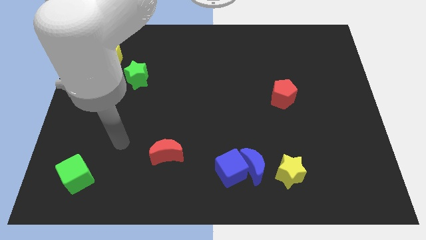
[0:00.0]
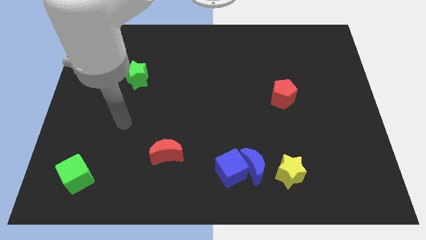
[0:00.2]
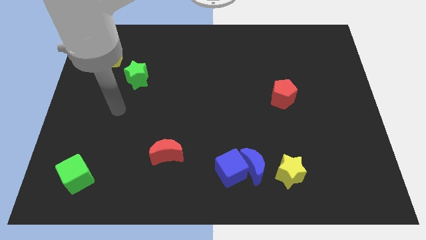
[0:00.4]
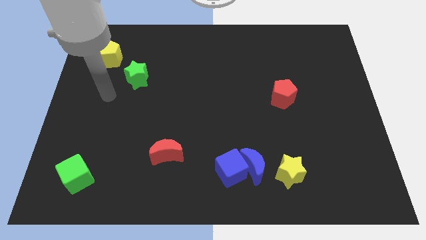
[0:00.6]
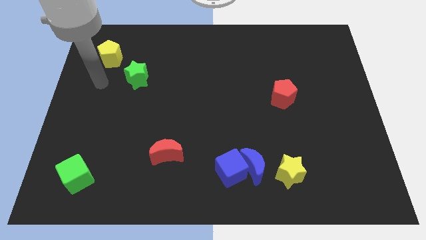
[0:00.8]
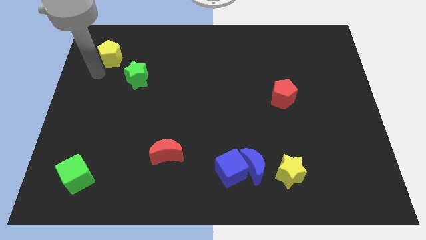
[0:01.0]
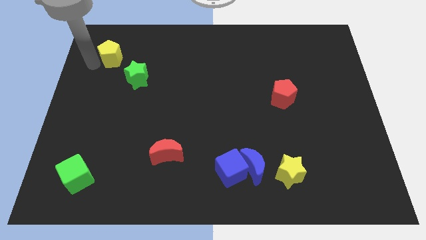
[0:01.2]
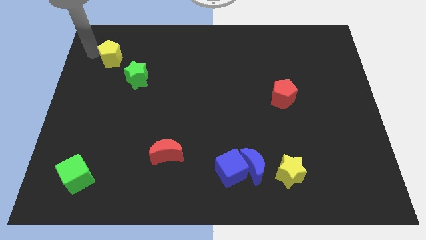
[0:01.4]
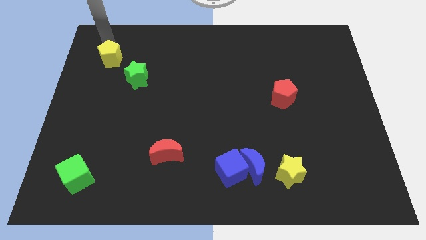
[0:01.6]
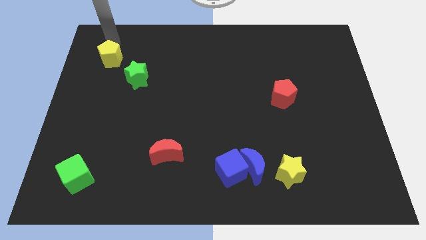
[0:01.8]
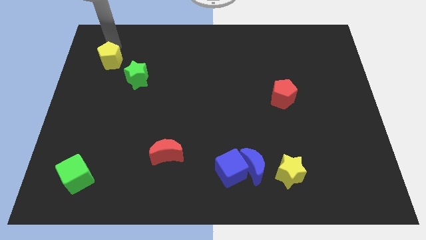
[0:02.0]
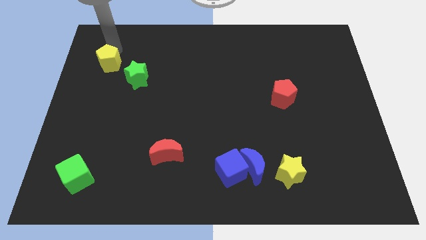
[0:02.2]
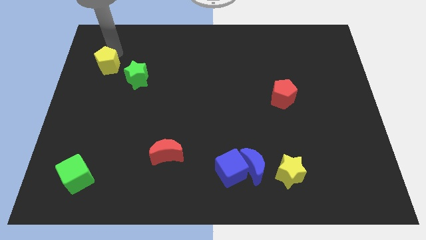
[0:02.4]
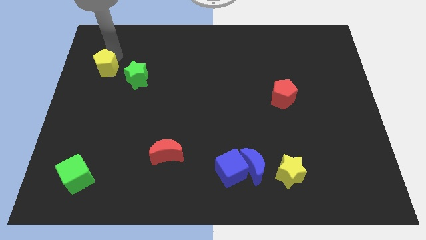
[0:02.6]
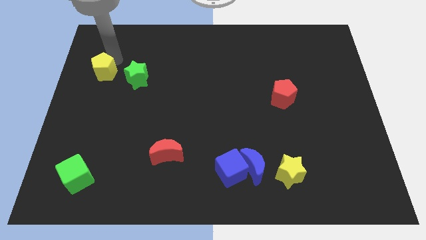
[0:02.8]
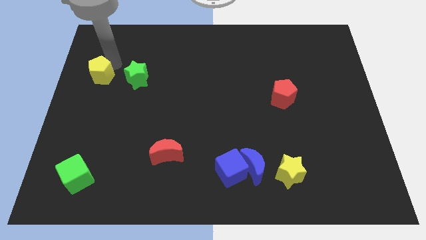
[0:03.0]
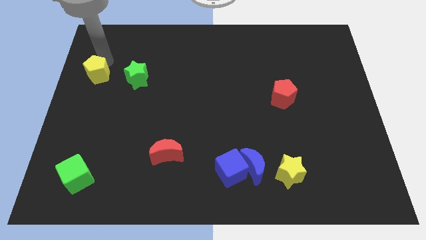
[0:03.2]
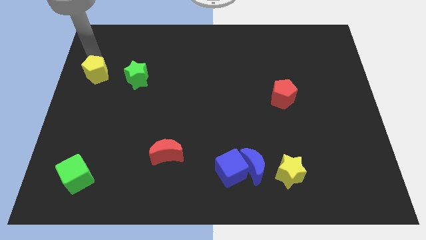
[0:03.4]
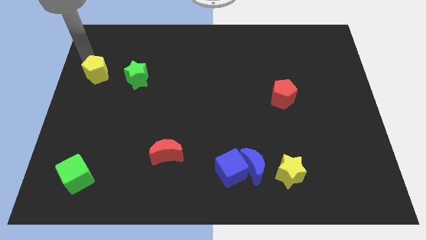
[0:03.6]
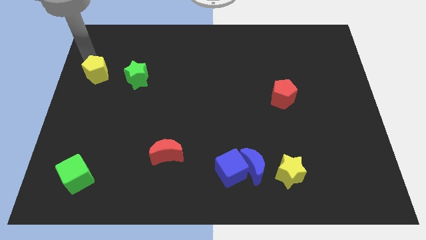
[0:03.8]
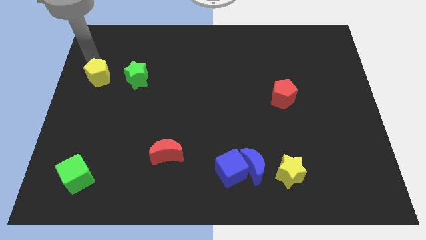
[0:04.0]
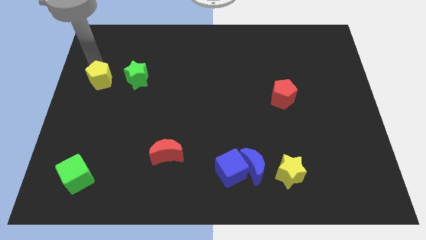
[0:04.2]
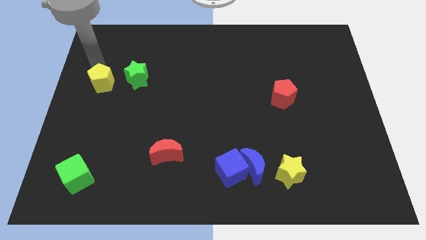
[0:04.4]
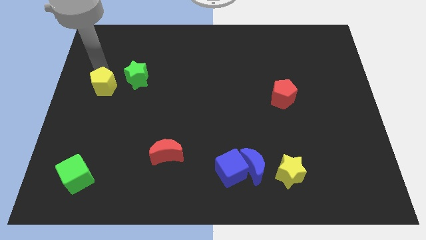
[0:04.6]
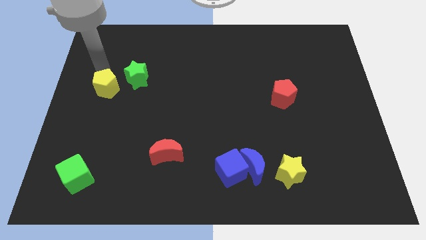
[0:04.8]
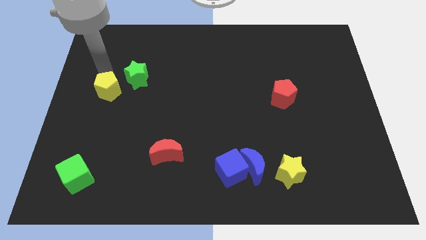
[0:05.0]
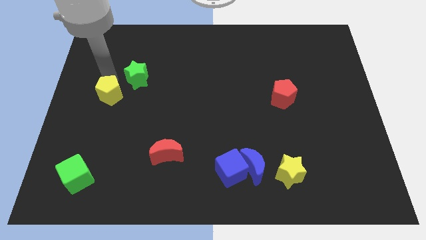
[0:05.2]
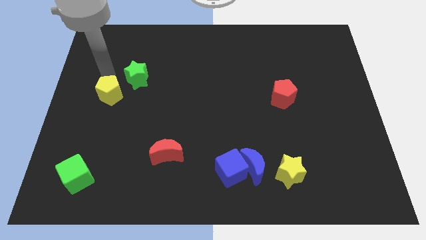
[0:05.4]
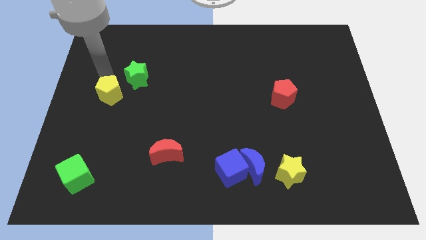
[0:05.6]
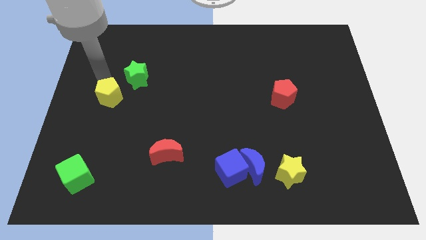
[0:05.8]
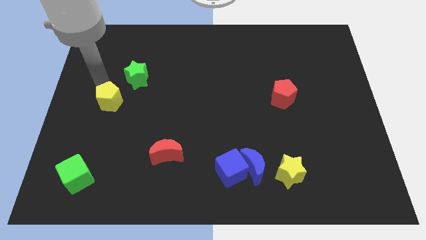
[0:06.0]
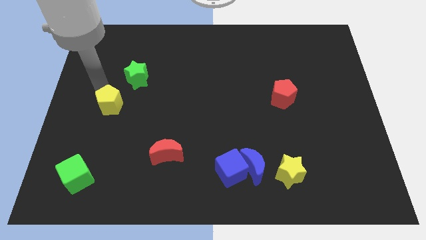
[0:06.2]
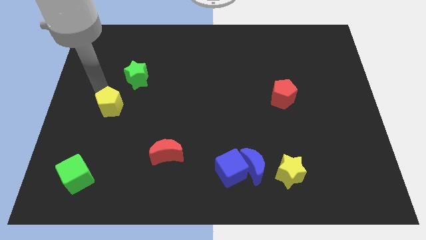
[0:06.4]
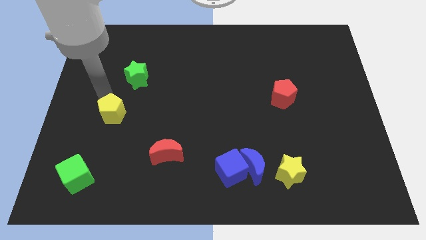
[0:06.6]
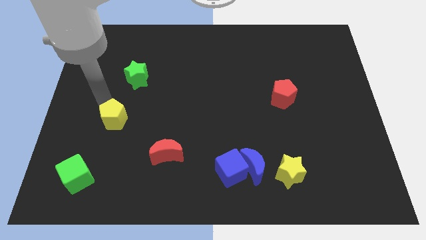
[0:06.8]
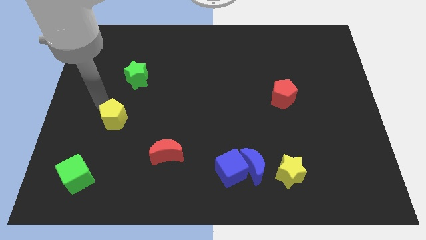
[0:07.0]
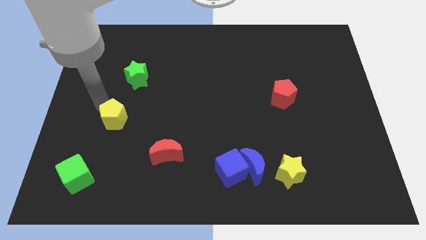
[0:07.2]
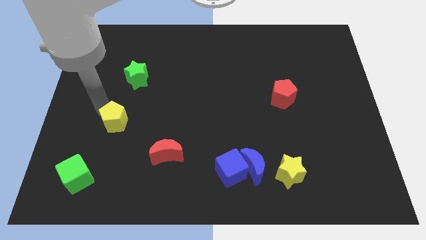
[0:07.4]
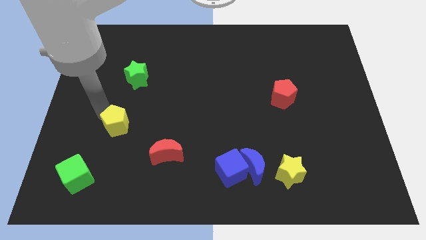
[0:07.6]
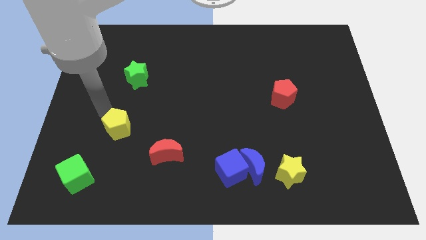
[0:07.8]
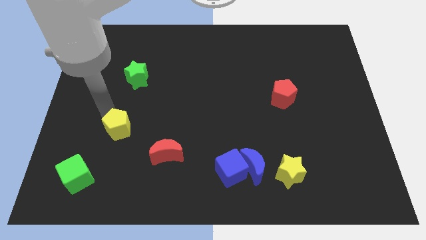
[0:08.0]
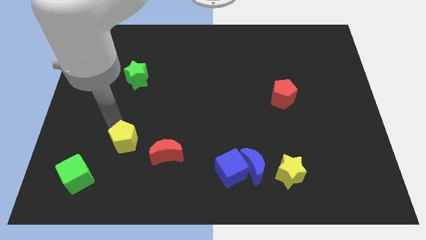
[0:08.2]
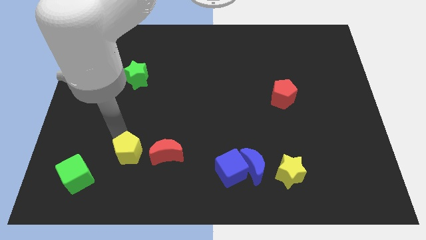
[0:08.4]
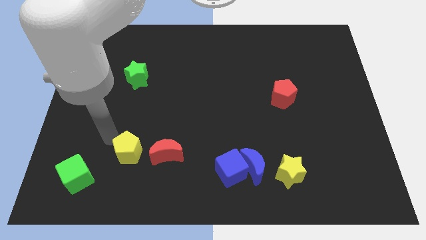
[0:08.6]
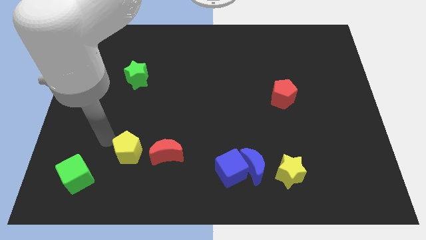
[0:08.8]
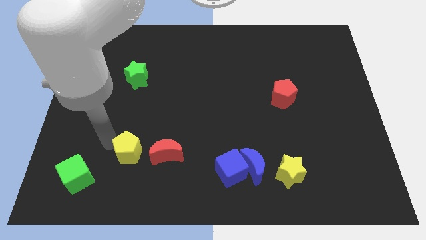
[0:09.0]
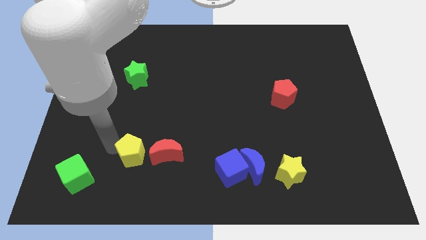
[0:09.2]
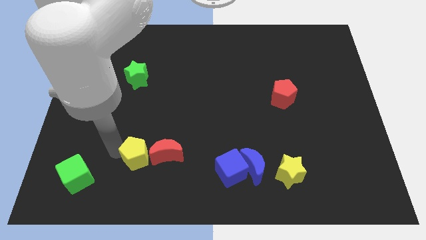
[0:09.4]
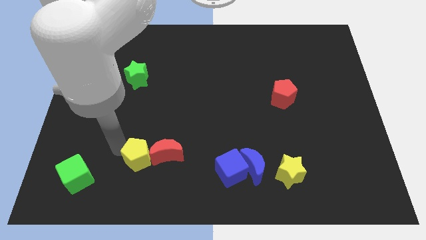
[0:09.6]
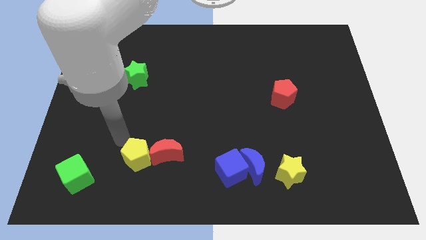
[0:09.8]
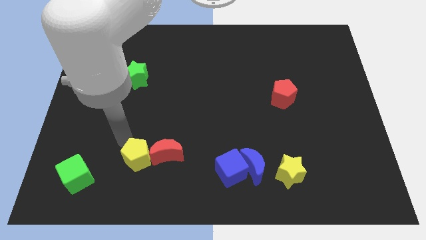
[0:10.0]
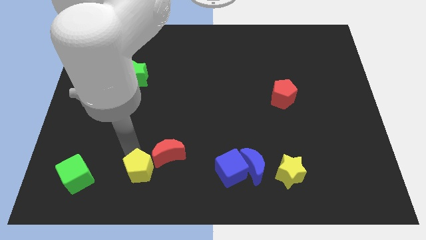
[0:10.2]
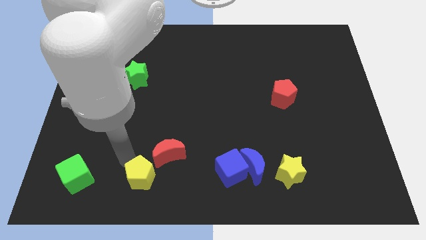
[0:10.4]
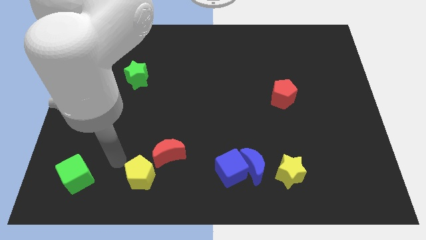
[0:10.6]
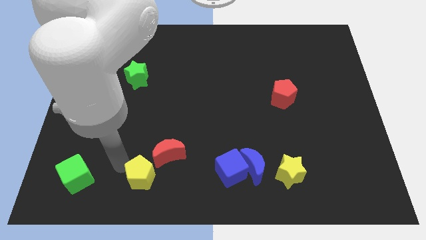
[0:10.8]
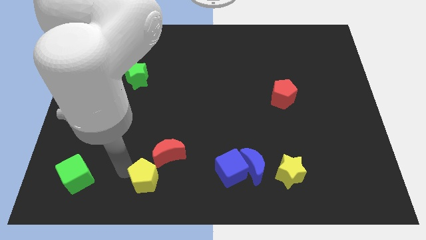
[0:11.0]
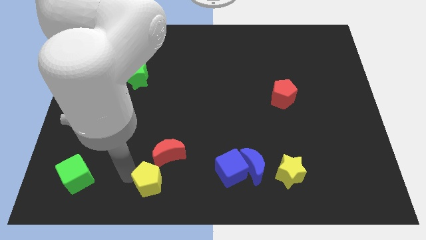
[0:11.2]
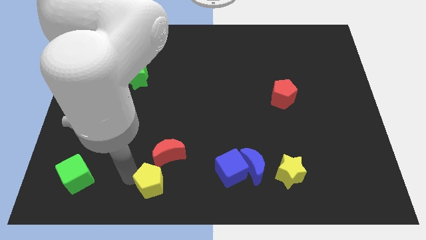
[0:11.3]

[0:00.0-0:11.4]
put the yellow pentagon to the bottom side
